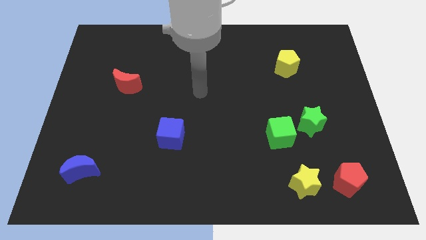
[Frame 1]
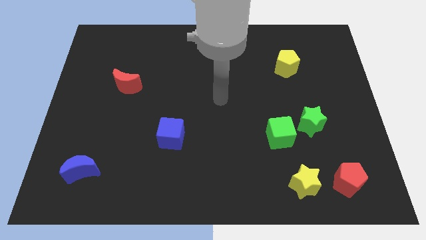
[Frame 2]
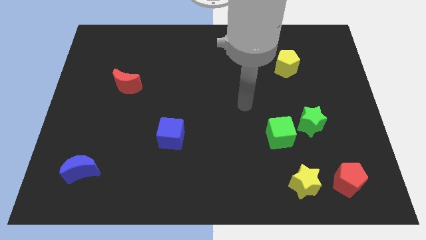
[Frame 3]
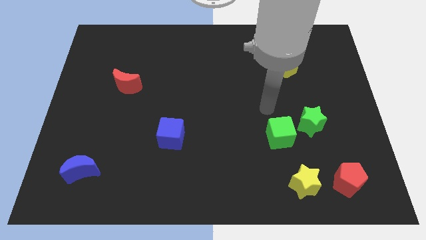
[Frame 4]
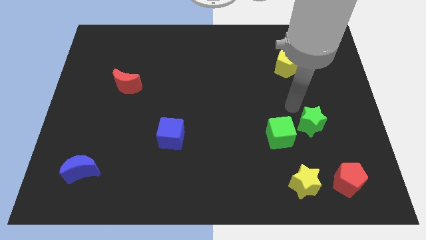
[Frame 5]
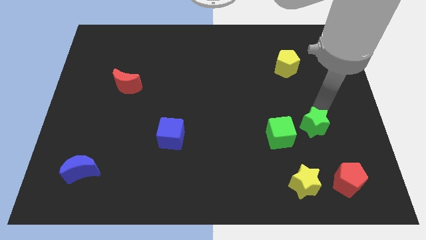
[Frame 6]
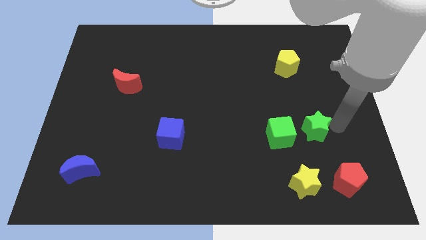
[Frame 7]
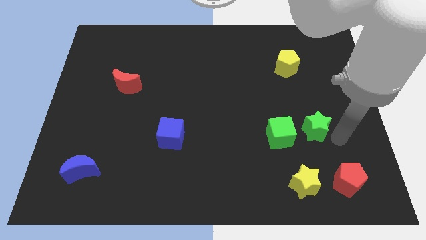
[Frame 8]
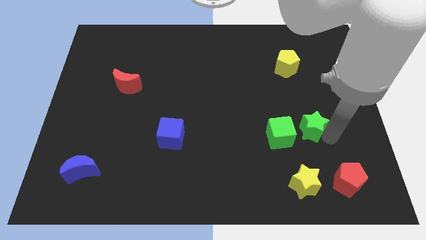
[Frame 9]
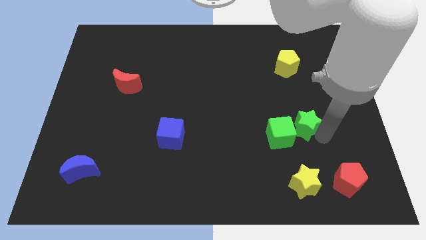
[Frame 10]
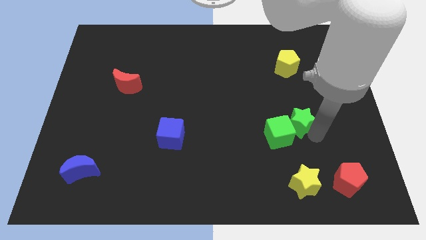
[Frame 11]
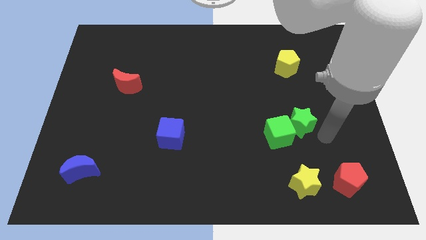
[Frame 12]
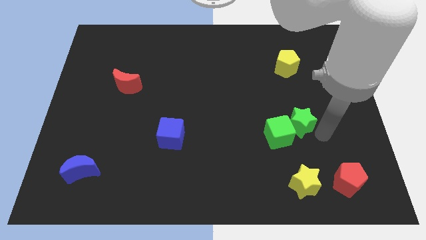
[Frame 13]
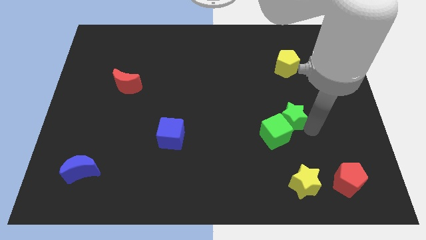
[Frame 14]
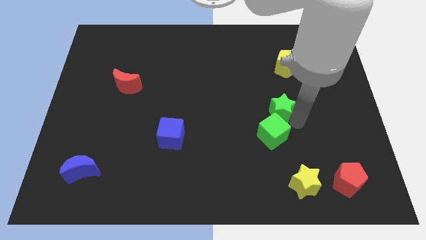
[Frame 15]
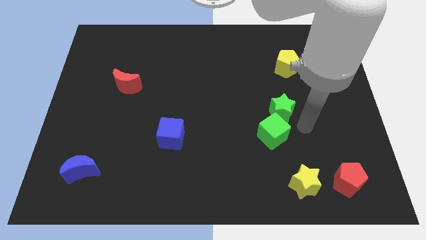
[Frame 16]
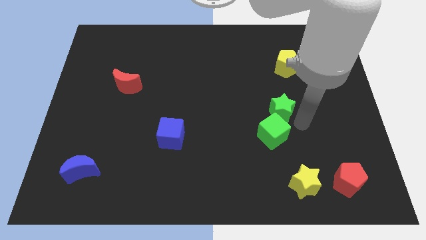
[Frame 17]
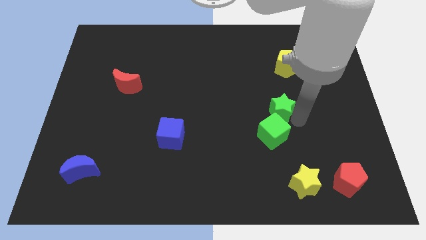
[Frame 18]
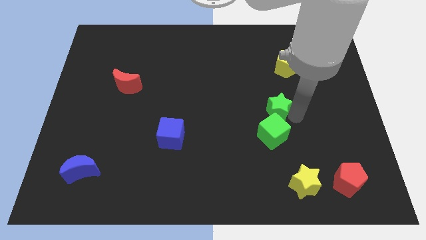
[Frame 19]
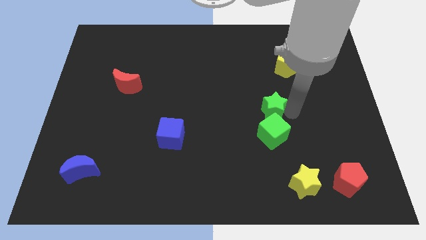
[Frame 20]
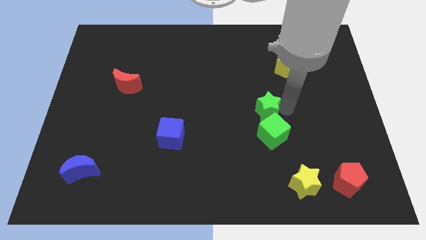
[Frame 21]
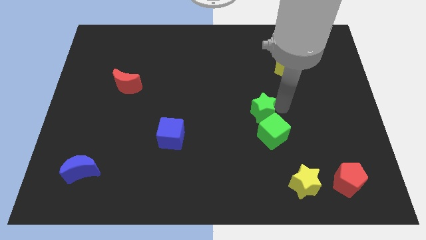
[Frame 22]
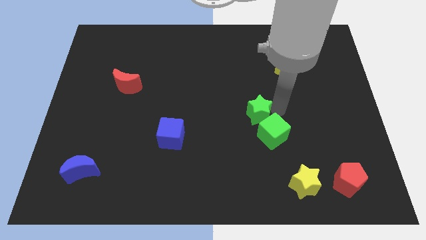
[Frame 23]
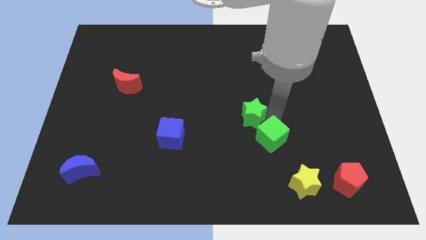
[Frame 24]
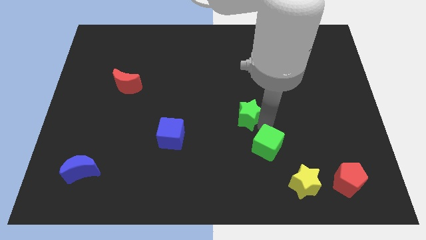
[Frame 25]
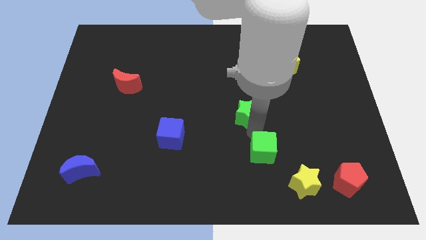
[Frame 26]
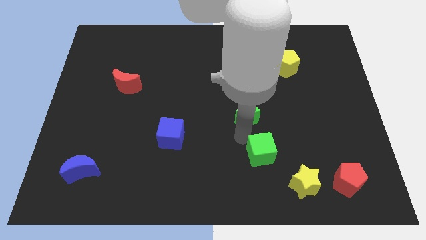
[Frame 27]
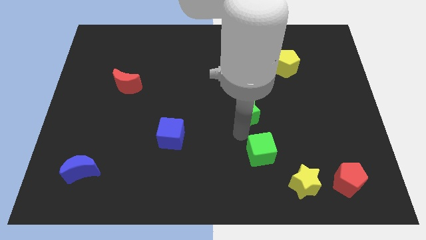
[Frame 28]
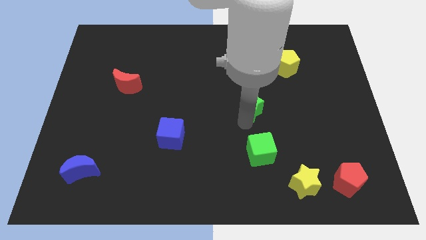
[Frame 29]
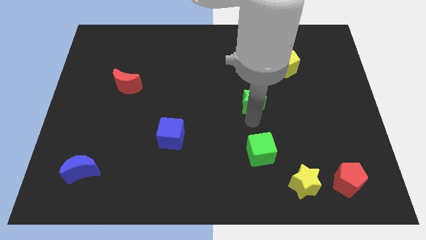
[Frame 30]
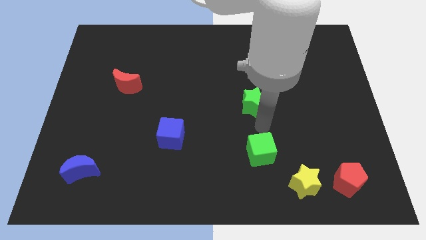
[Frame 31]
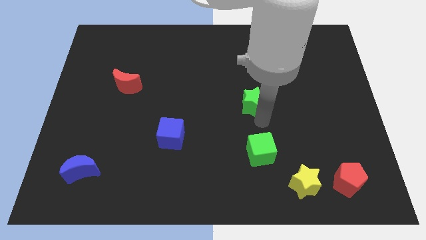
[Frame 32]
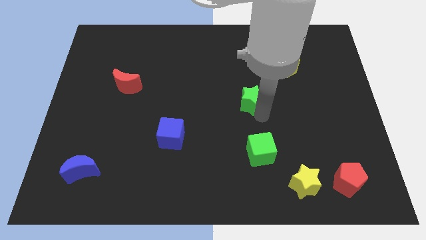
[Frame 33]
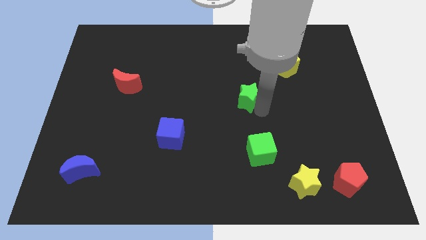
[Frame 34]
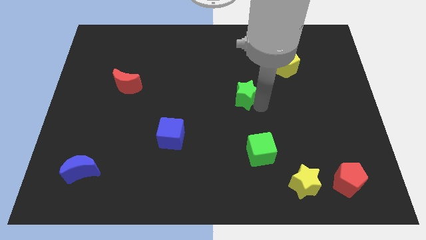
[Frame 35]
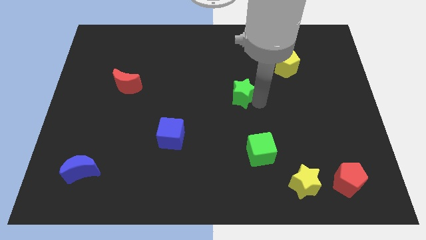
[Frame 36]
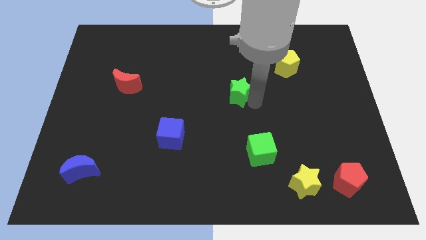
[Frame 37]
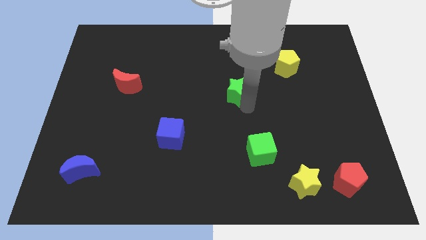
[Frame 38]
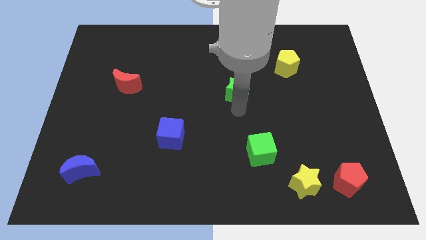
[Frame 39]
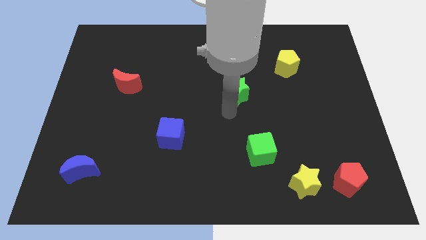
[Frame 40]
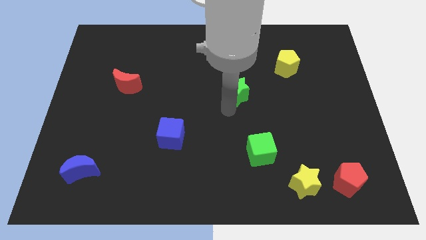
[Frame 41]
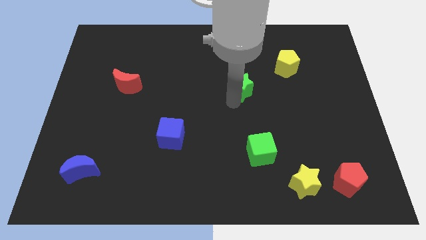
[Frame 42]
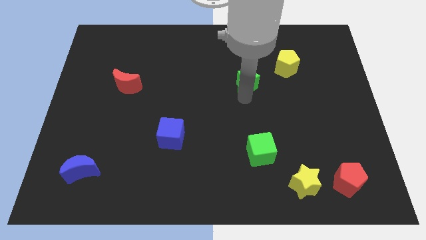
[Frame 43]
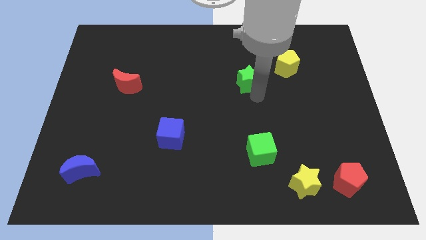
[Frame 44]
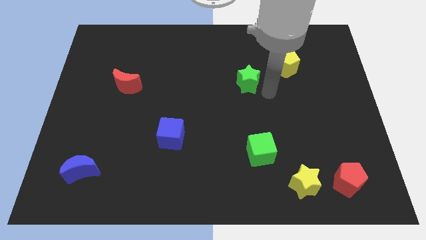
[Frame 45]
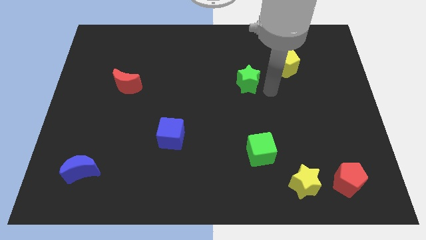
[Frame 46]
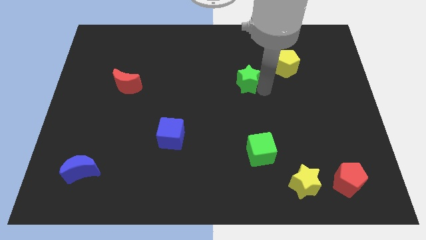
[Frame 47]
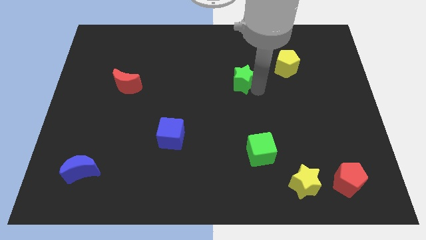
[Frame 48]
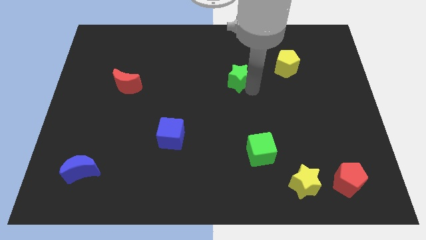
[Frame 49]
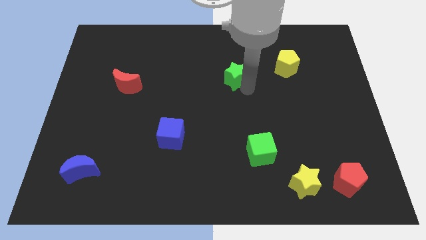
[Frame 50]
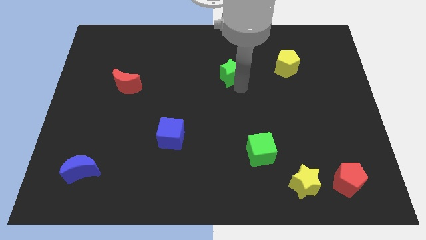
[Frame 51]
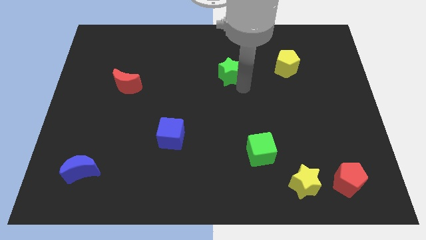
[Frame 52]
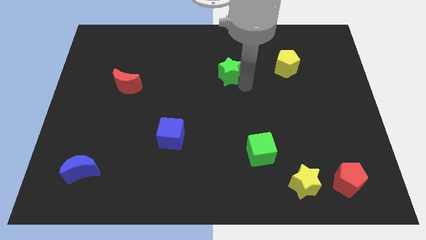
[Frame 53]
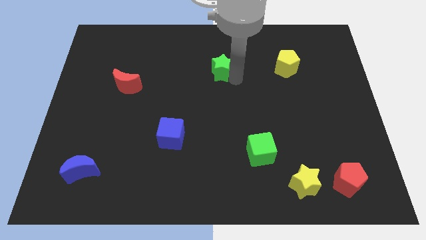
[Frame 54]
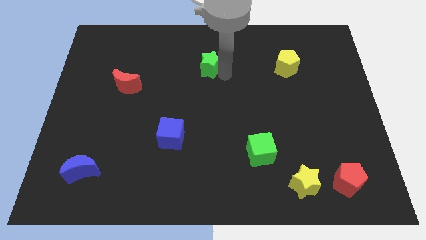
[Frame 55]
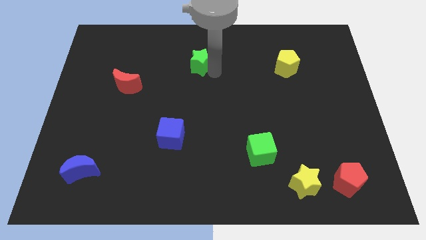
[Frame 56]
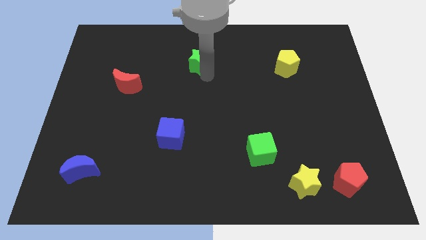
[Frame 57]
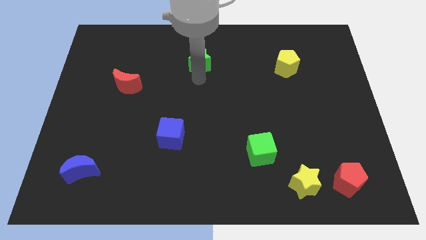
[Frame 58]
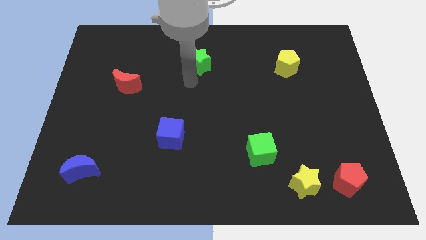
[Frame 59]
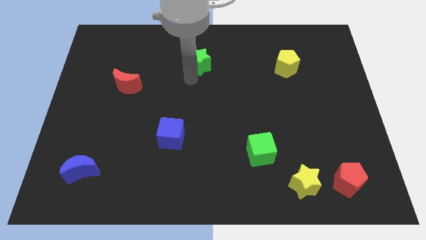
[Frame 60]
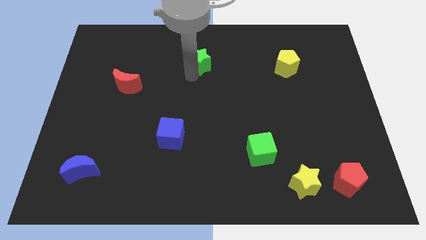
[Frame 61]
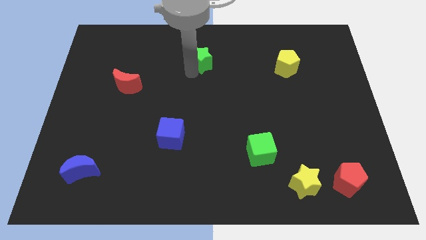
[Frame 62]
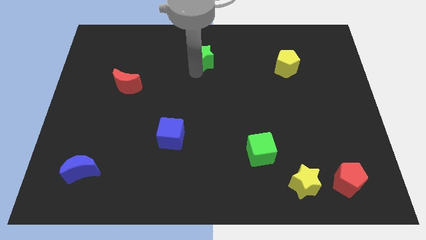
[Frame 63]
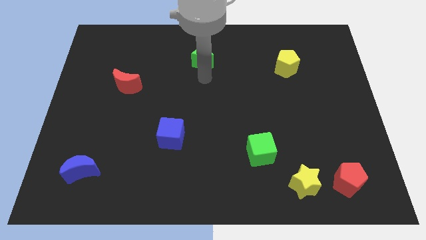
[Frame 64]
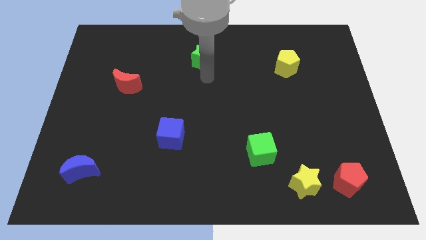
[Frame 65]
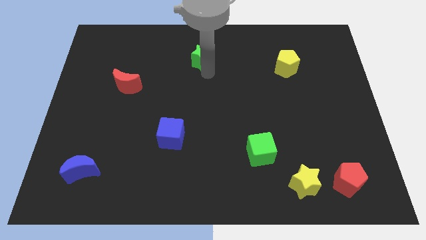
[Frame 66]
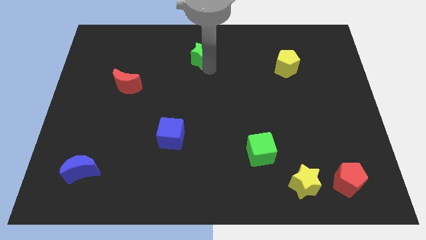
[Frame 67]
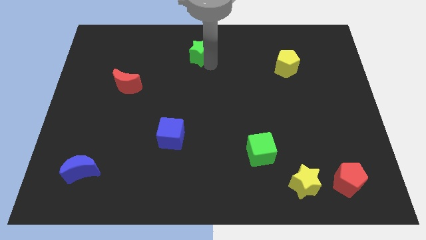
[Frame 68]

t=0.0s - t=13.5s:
push the green star to the top side

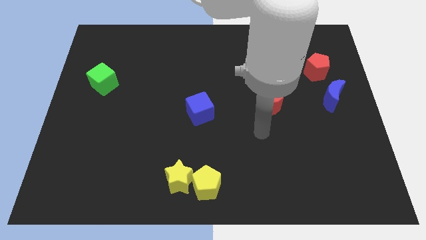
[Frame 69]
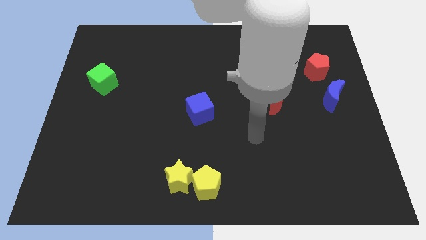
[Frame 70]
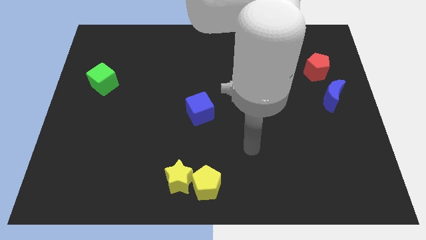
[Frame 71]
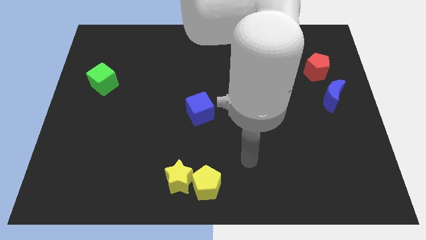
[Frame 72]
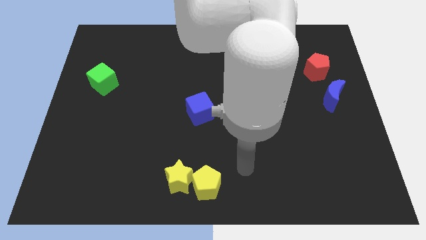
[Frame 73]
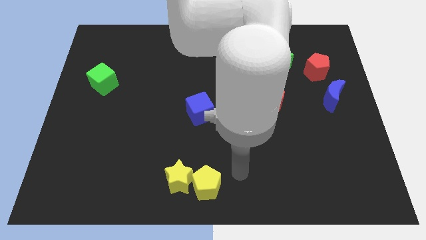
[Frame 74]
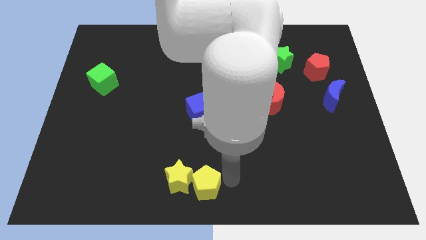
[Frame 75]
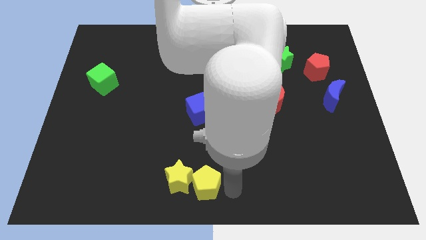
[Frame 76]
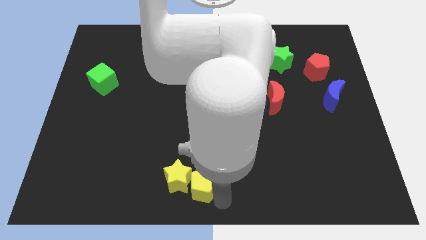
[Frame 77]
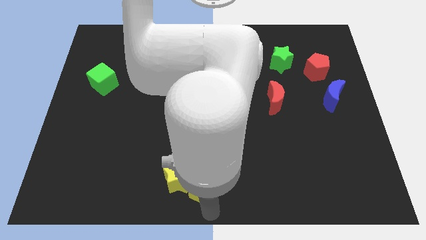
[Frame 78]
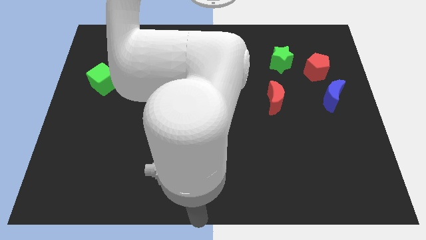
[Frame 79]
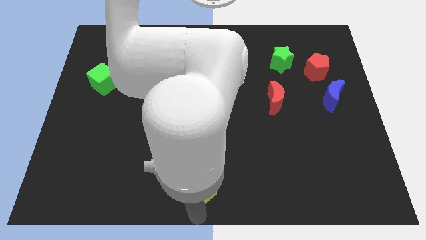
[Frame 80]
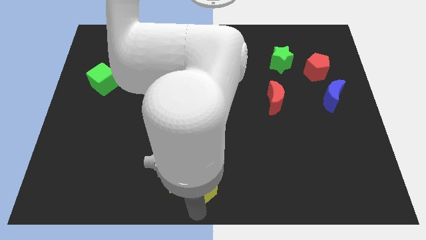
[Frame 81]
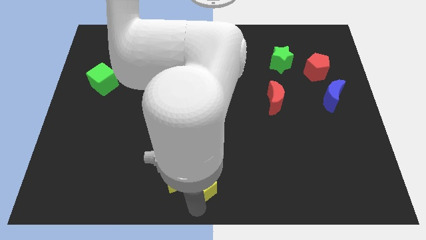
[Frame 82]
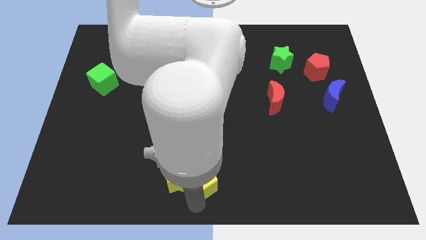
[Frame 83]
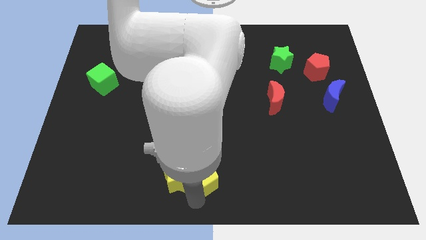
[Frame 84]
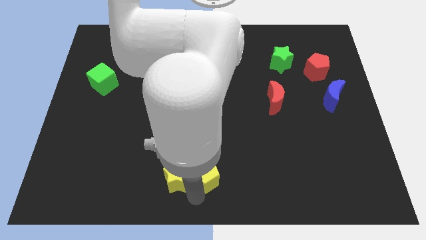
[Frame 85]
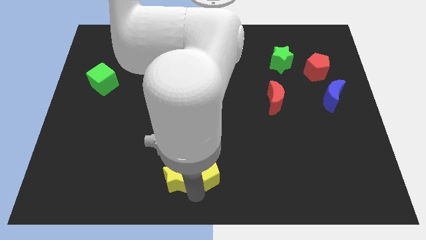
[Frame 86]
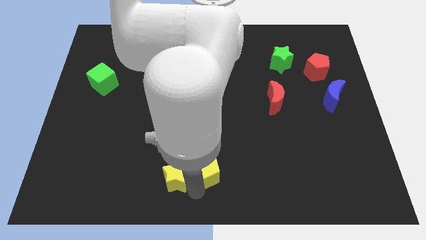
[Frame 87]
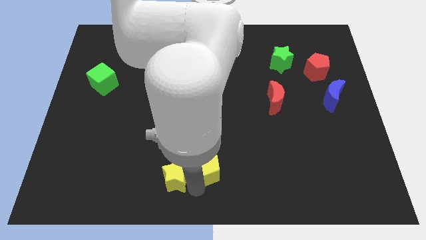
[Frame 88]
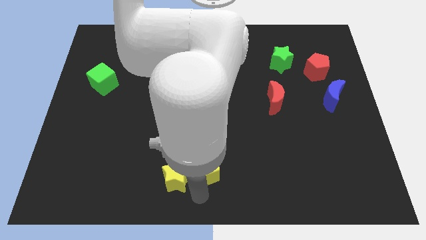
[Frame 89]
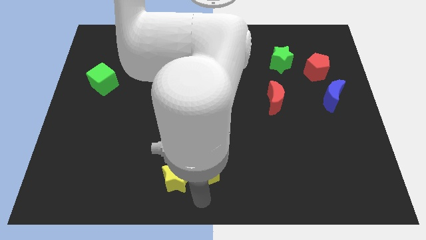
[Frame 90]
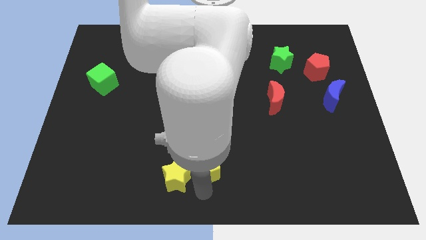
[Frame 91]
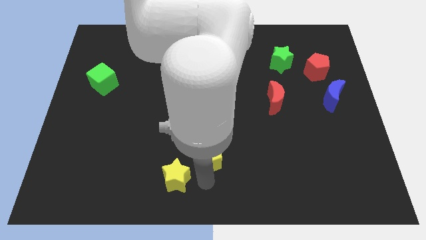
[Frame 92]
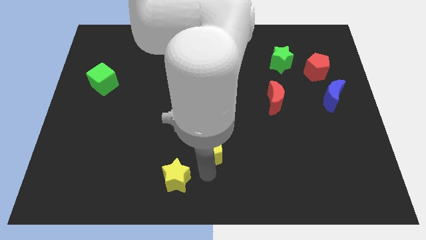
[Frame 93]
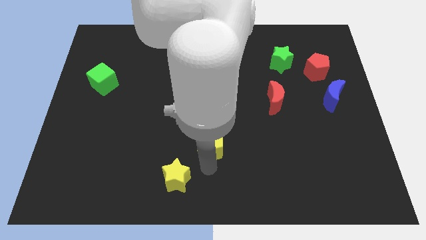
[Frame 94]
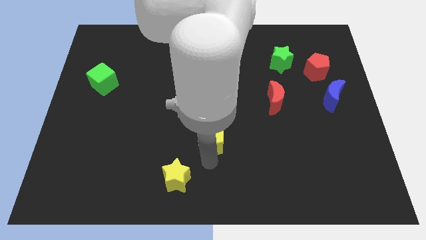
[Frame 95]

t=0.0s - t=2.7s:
slide the yellow pentagon to the center
